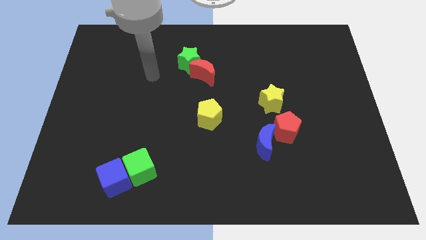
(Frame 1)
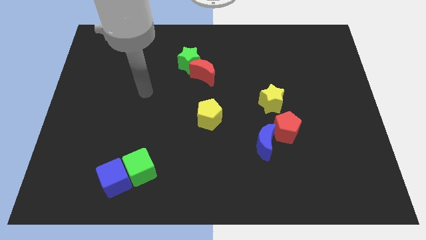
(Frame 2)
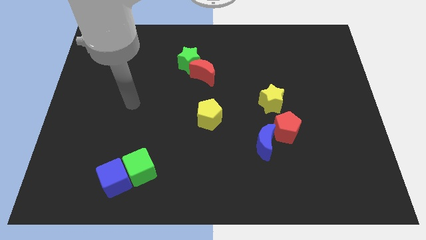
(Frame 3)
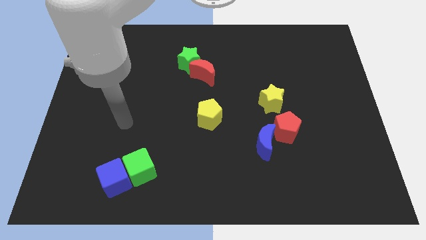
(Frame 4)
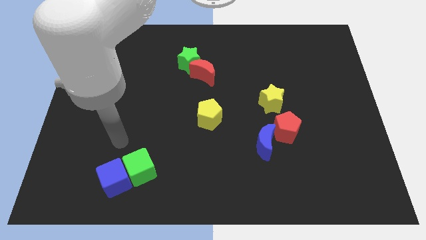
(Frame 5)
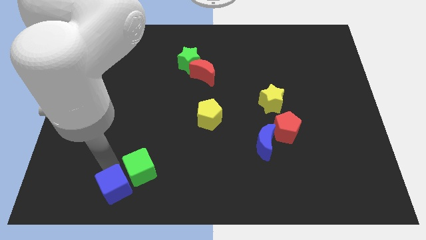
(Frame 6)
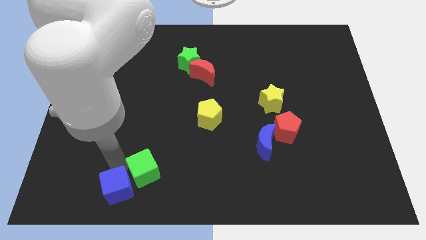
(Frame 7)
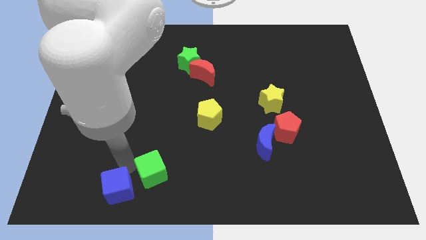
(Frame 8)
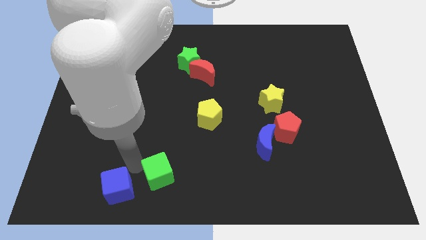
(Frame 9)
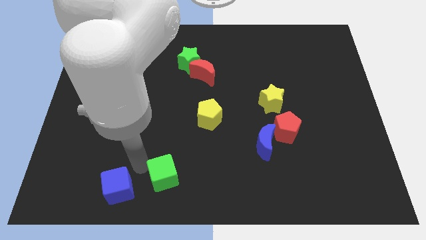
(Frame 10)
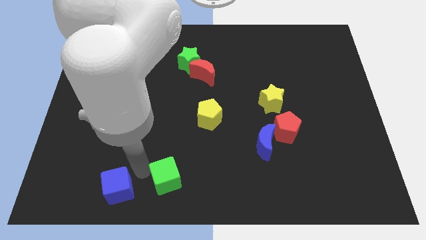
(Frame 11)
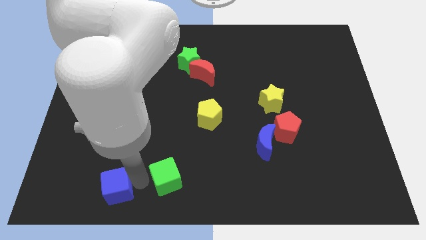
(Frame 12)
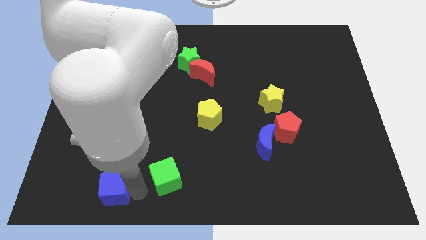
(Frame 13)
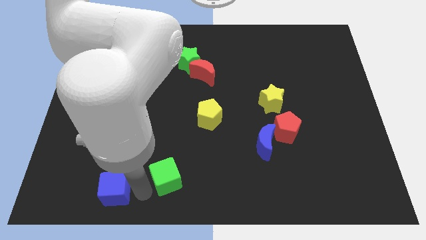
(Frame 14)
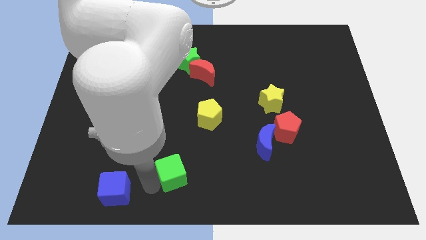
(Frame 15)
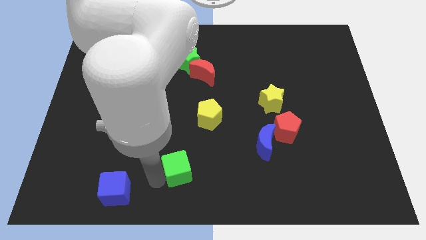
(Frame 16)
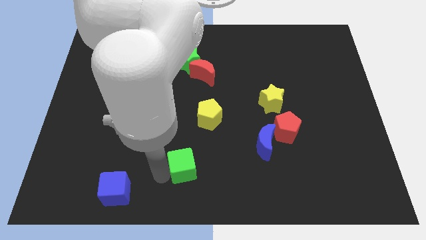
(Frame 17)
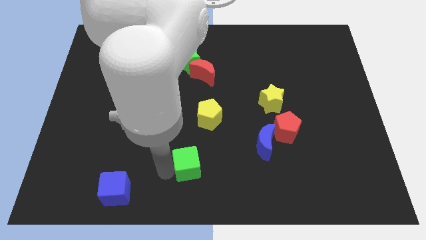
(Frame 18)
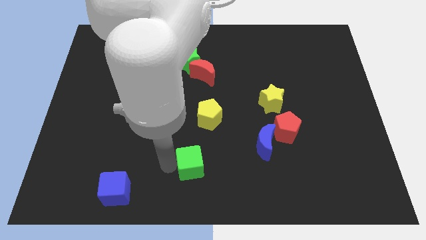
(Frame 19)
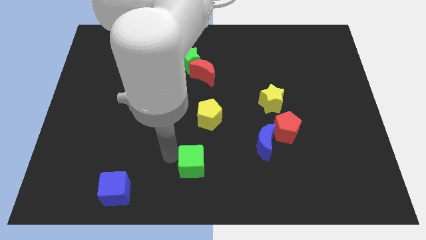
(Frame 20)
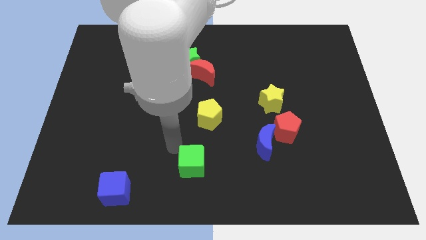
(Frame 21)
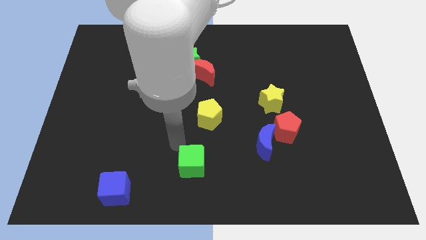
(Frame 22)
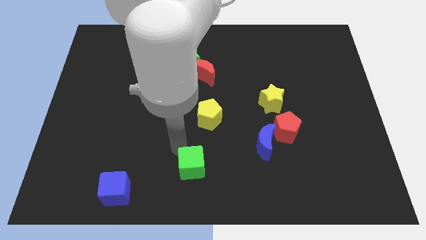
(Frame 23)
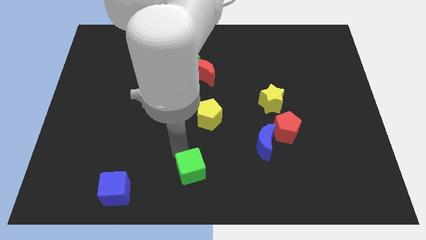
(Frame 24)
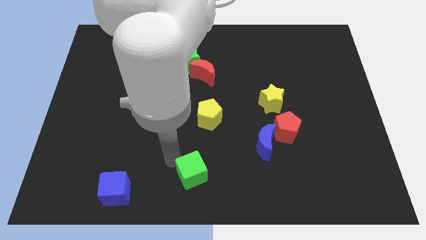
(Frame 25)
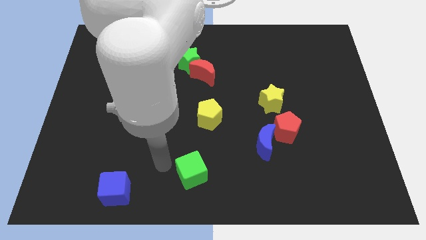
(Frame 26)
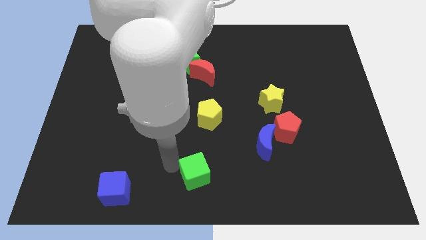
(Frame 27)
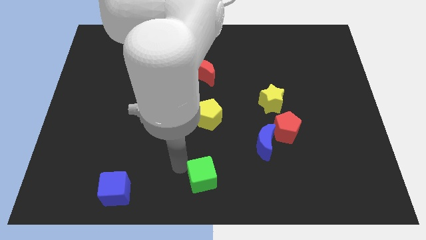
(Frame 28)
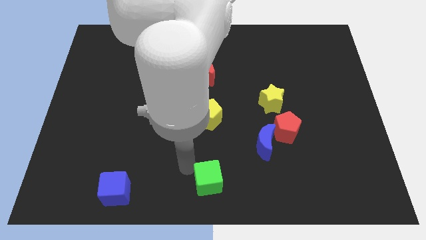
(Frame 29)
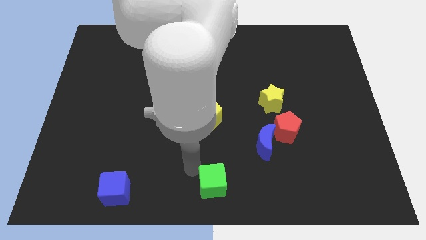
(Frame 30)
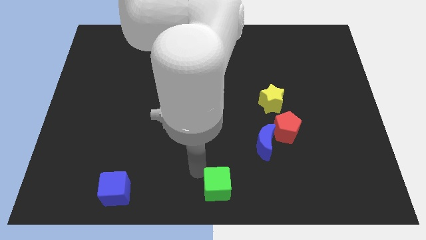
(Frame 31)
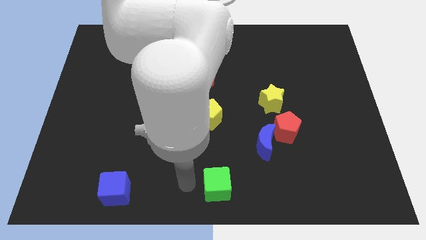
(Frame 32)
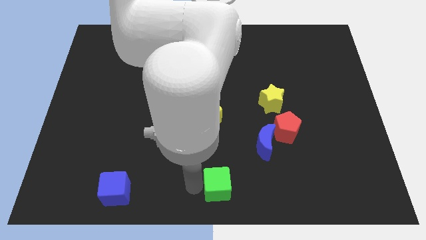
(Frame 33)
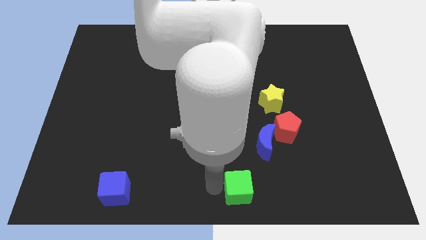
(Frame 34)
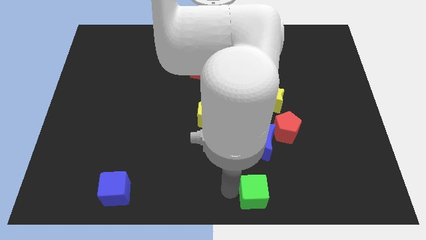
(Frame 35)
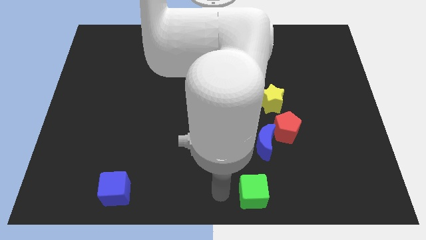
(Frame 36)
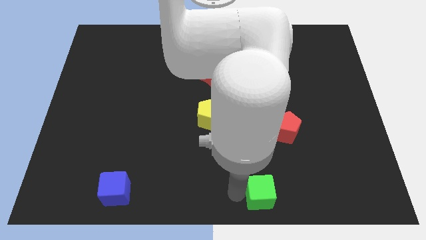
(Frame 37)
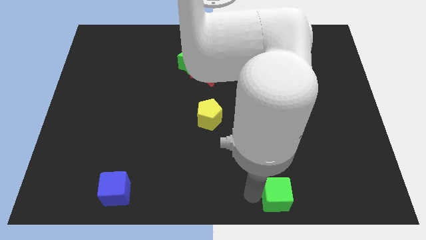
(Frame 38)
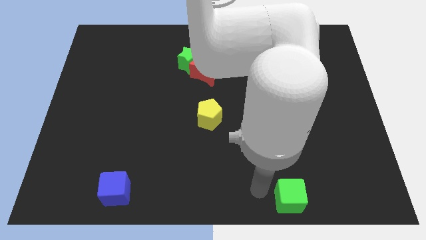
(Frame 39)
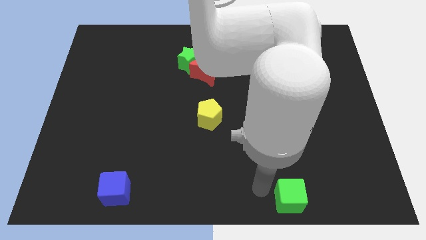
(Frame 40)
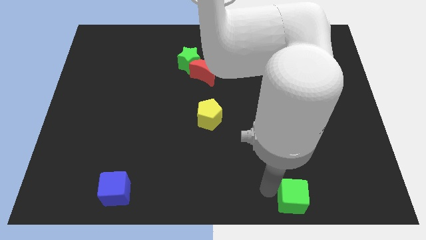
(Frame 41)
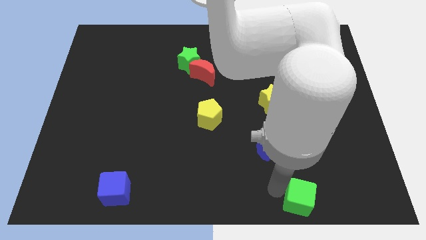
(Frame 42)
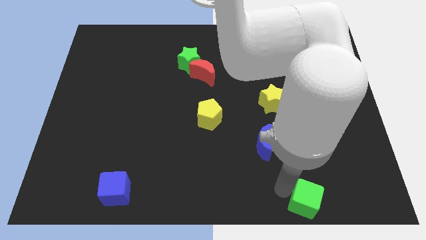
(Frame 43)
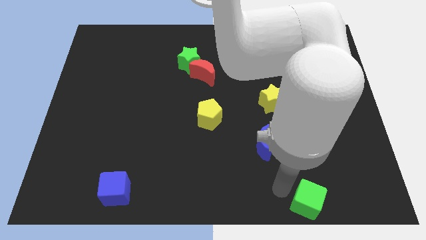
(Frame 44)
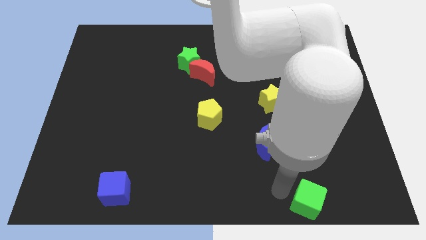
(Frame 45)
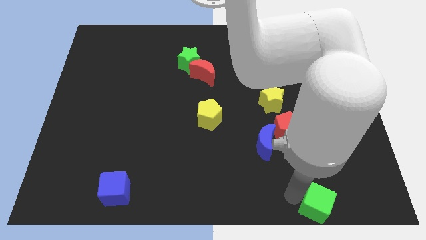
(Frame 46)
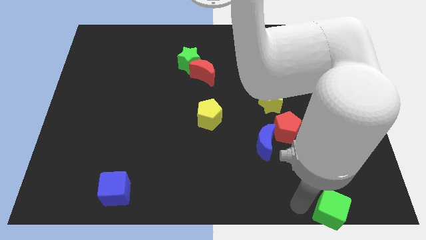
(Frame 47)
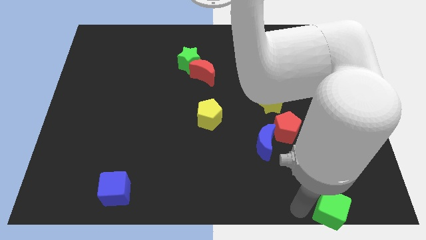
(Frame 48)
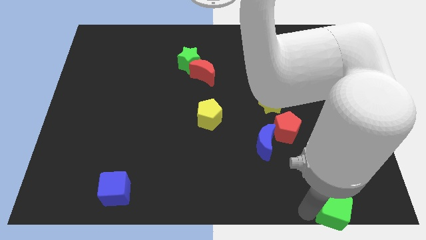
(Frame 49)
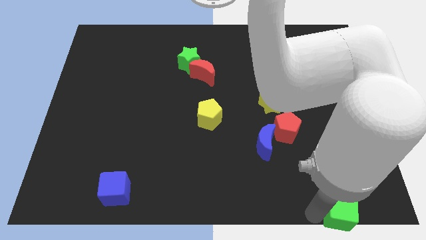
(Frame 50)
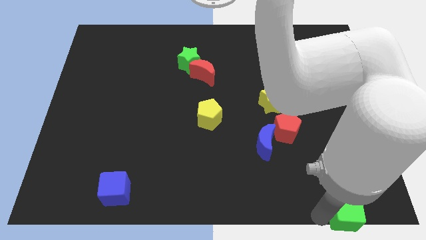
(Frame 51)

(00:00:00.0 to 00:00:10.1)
slide the green cube to the bottom right of the board

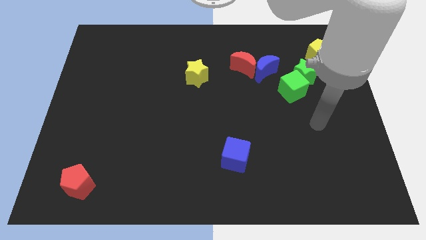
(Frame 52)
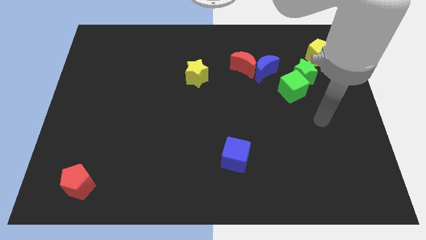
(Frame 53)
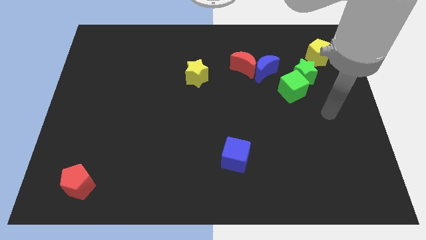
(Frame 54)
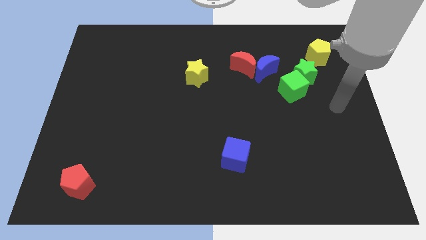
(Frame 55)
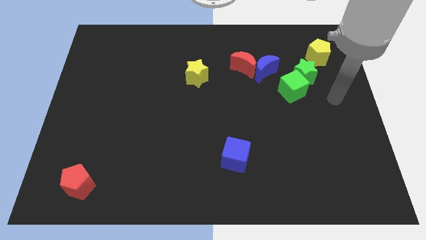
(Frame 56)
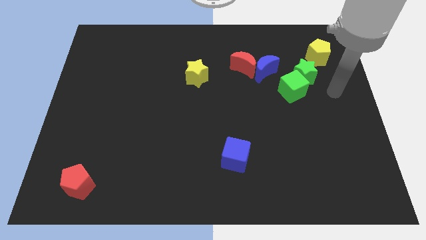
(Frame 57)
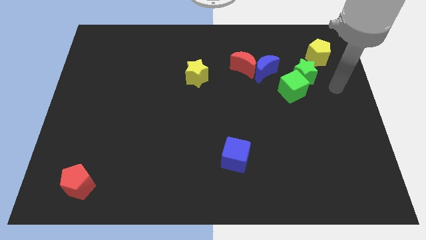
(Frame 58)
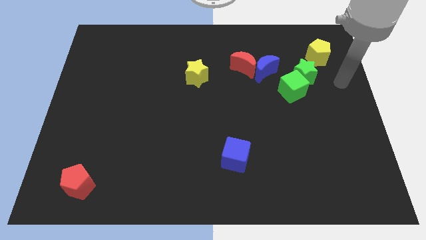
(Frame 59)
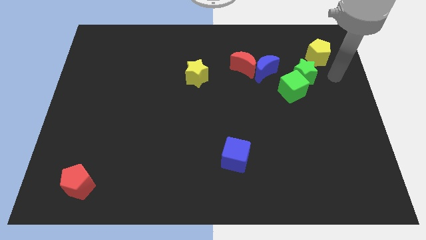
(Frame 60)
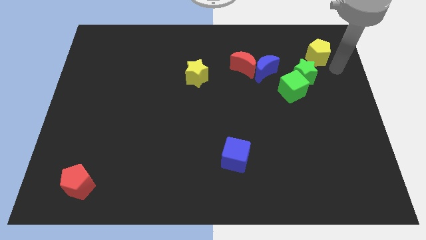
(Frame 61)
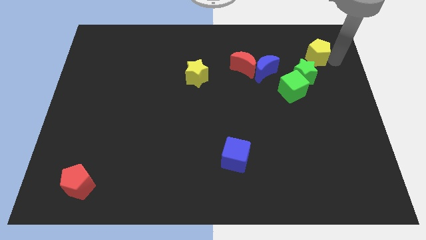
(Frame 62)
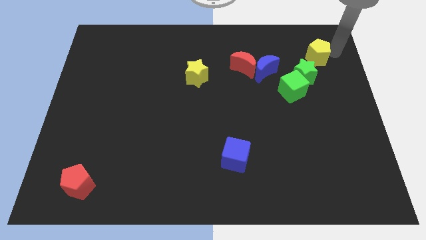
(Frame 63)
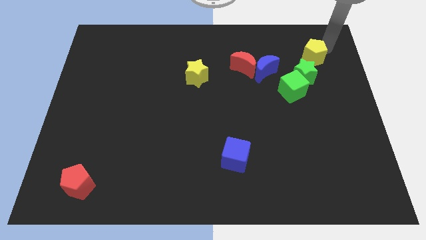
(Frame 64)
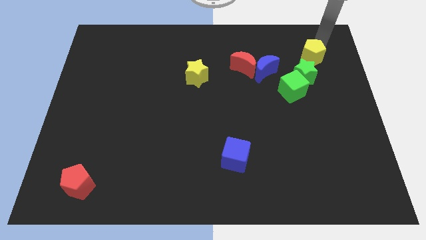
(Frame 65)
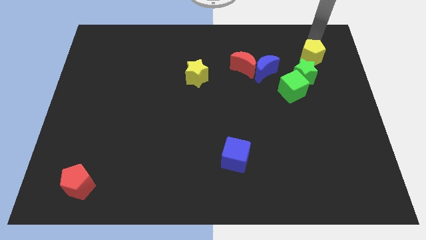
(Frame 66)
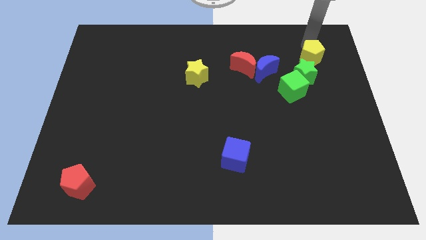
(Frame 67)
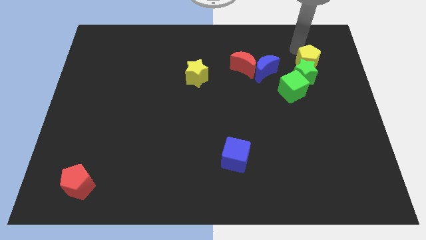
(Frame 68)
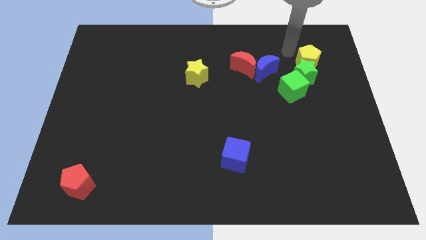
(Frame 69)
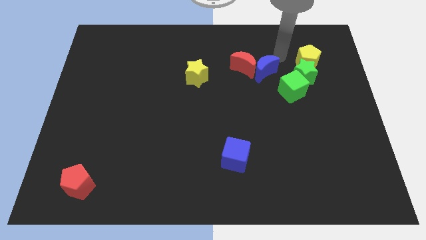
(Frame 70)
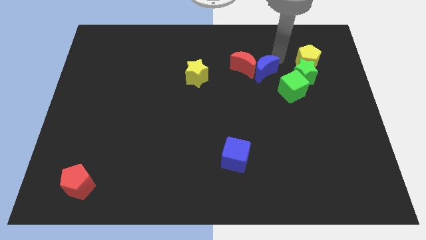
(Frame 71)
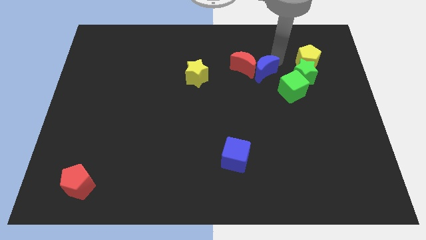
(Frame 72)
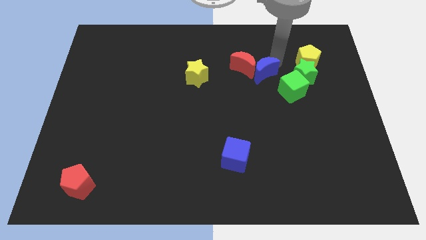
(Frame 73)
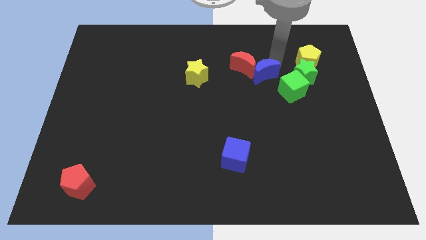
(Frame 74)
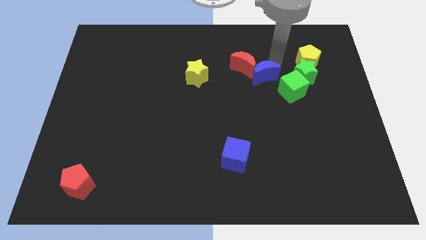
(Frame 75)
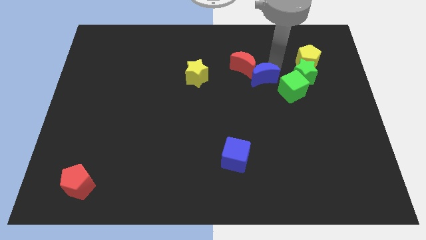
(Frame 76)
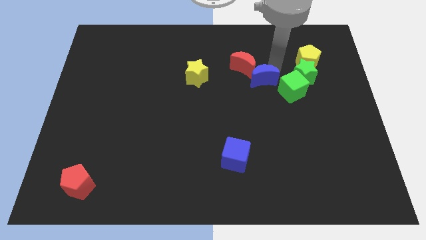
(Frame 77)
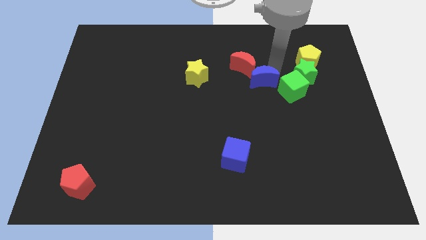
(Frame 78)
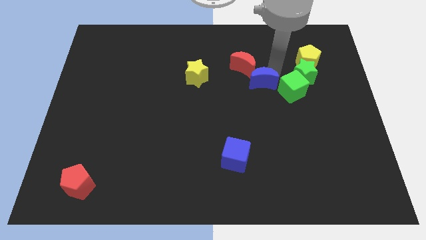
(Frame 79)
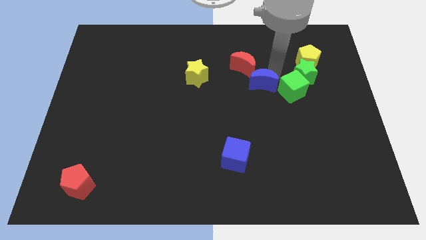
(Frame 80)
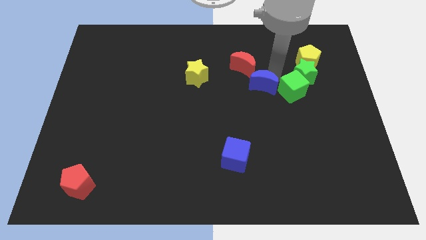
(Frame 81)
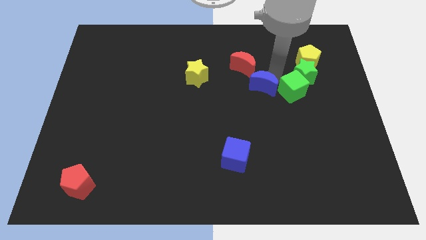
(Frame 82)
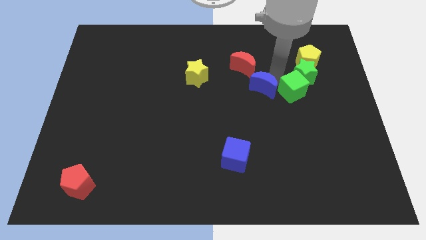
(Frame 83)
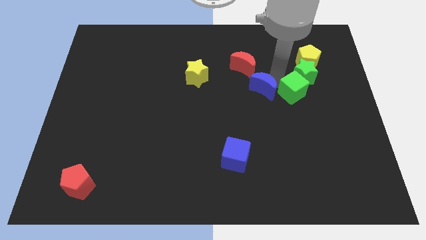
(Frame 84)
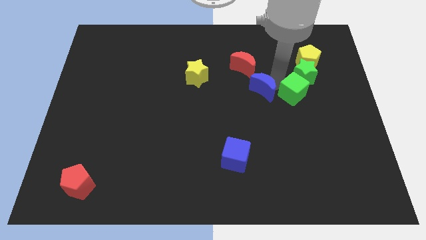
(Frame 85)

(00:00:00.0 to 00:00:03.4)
put the blue moon to the middle of the board
